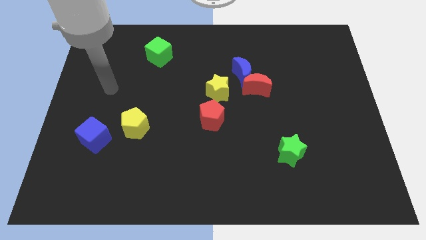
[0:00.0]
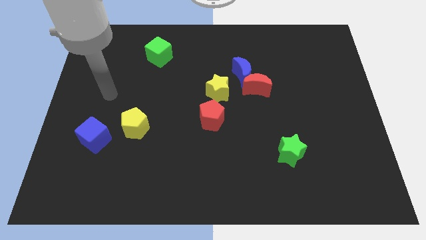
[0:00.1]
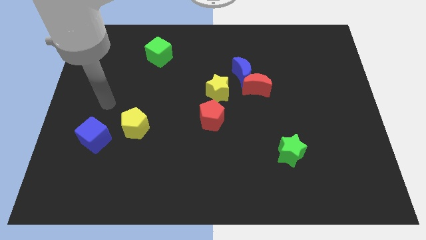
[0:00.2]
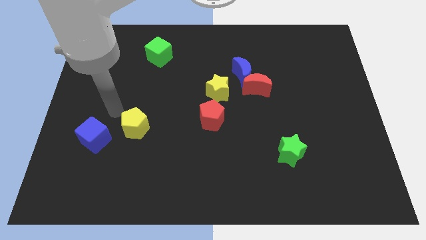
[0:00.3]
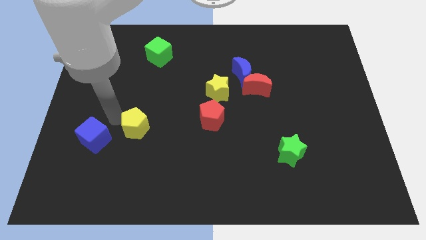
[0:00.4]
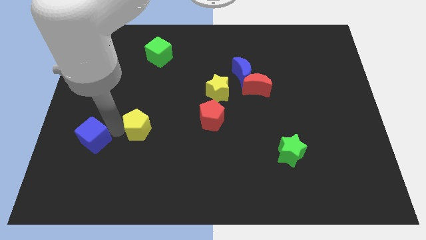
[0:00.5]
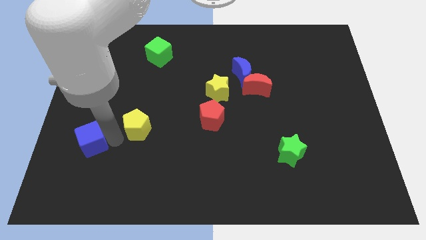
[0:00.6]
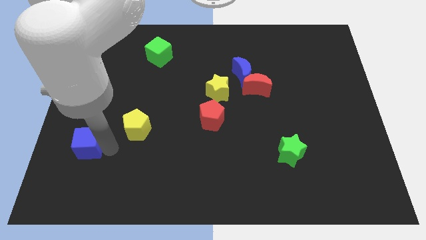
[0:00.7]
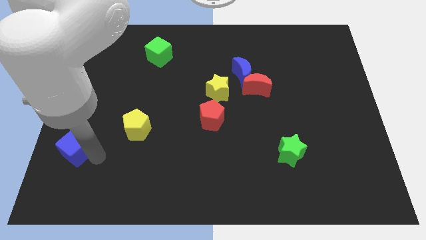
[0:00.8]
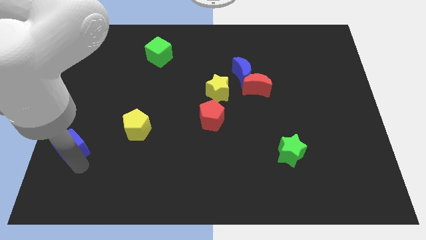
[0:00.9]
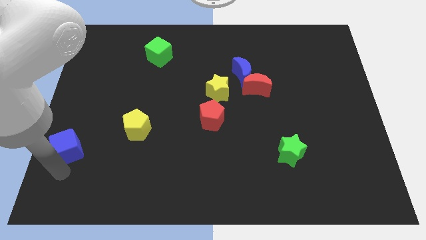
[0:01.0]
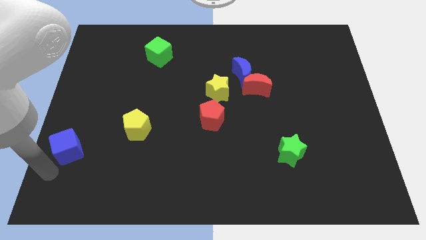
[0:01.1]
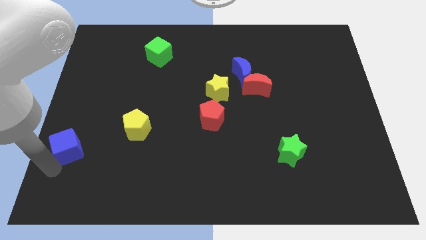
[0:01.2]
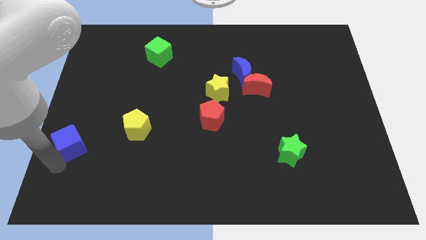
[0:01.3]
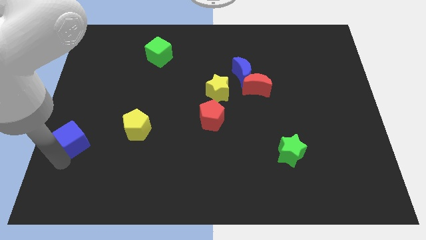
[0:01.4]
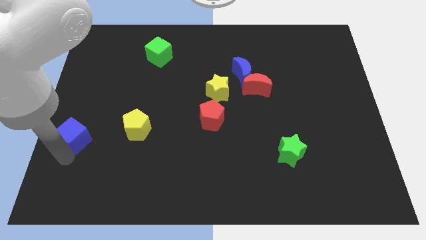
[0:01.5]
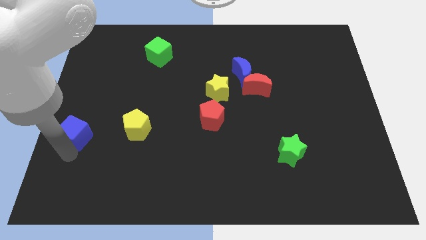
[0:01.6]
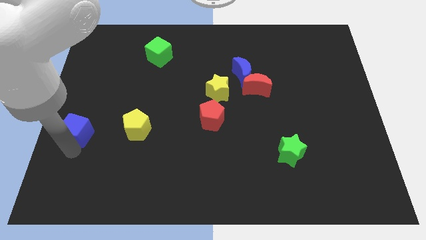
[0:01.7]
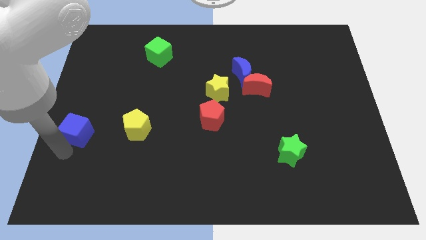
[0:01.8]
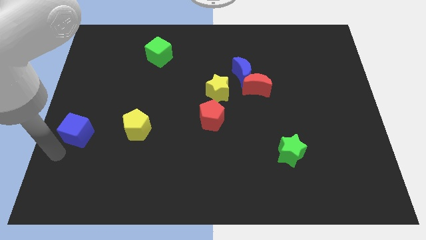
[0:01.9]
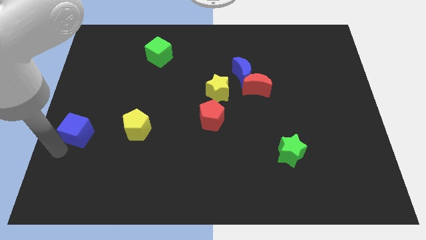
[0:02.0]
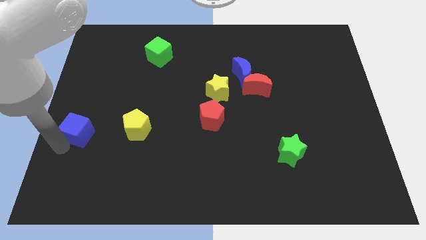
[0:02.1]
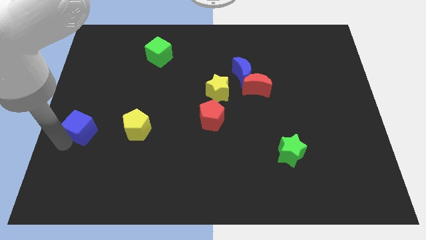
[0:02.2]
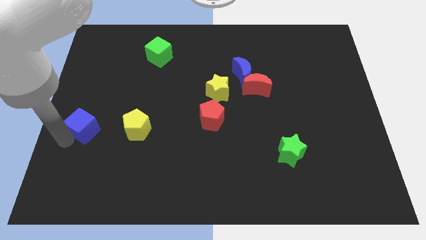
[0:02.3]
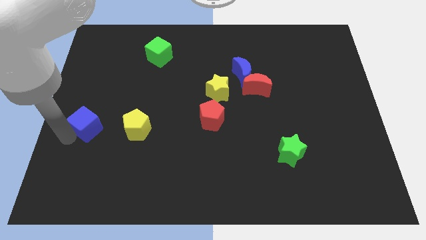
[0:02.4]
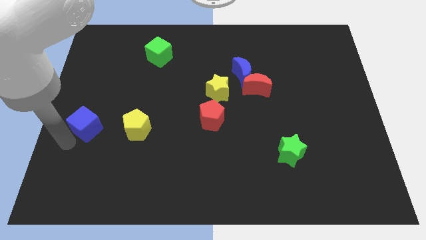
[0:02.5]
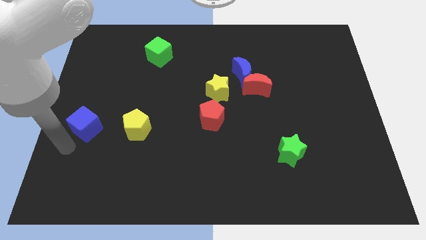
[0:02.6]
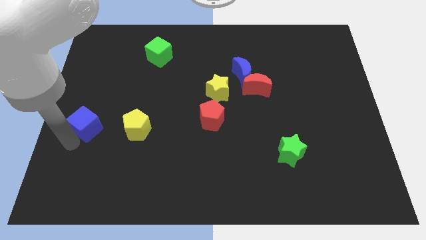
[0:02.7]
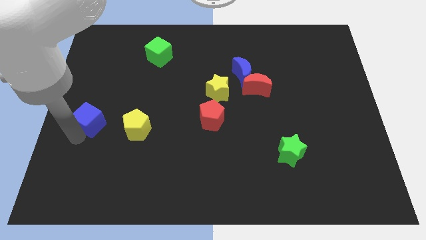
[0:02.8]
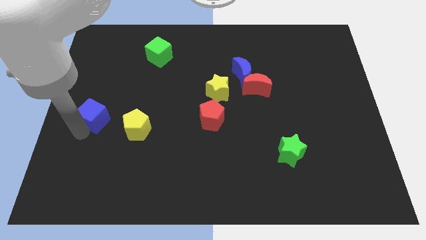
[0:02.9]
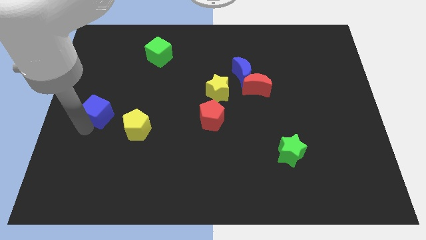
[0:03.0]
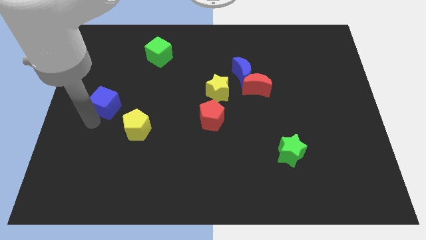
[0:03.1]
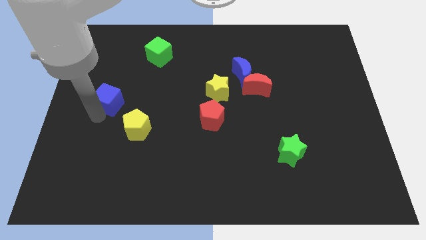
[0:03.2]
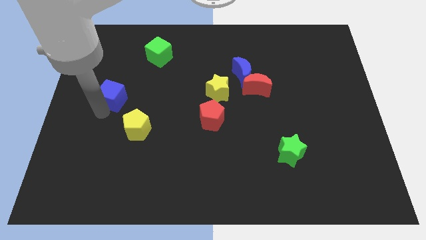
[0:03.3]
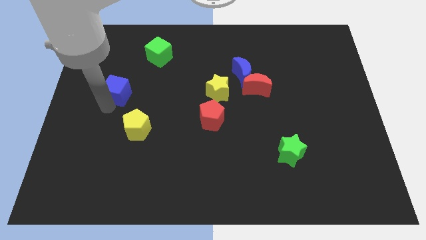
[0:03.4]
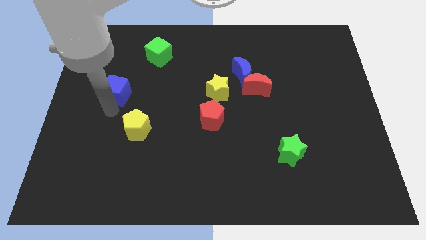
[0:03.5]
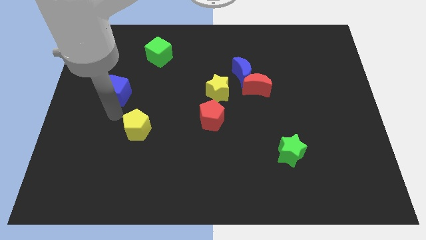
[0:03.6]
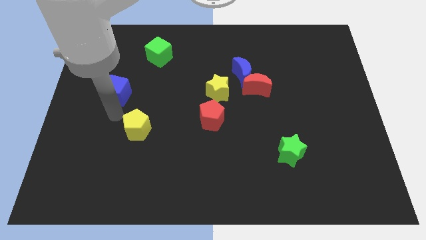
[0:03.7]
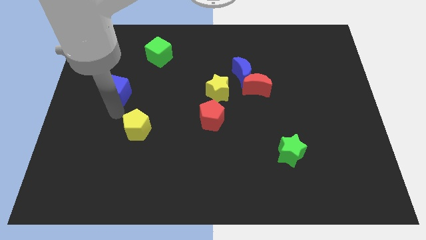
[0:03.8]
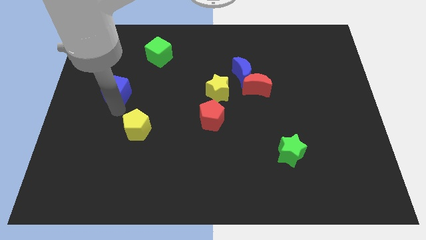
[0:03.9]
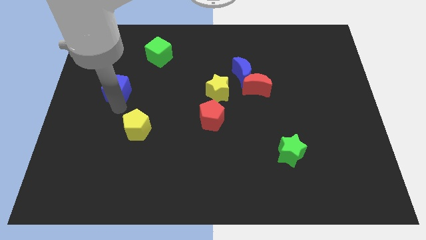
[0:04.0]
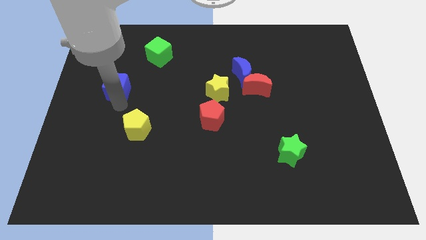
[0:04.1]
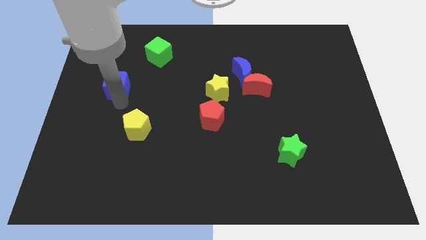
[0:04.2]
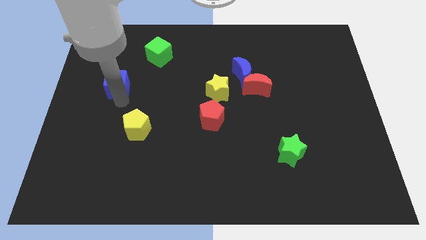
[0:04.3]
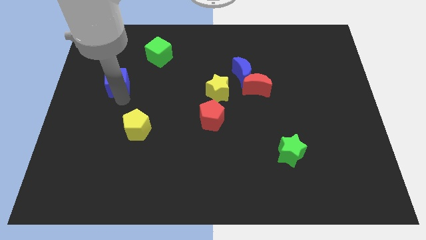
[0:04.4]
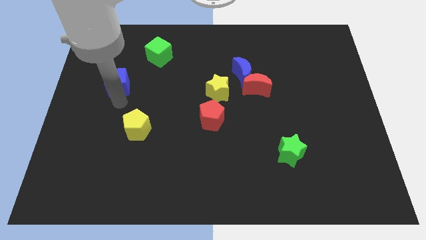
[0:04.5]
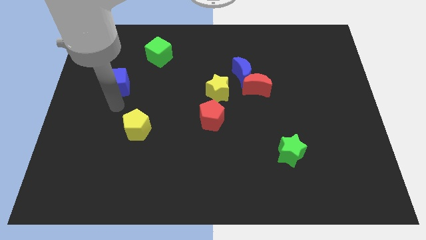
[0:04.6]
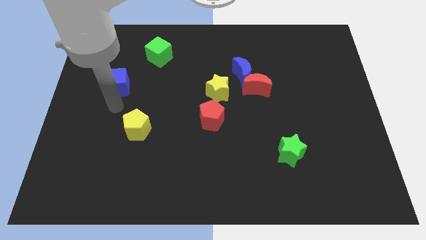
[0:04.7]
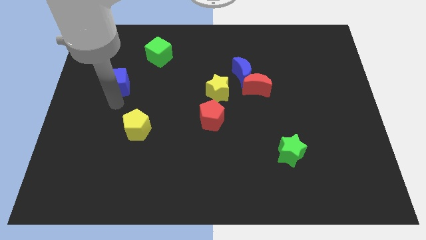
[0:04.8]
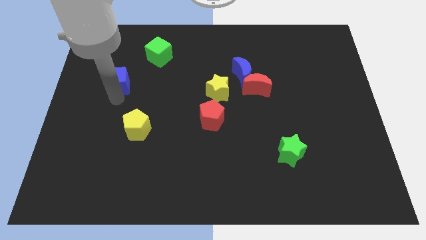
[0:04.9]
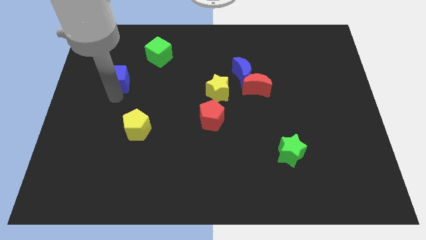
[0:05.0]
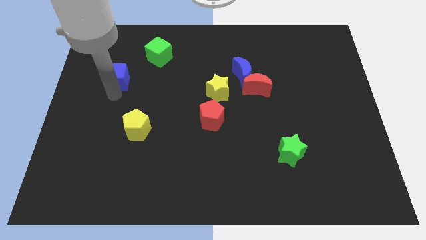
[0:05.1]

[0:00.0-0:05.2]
slide the blue cube to the bottom left of the green cube

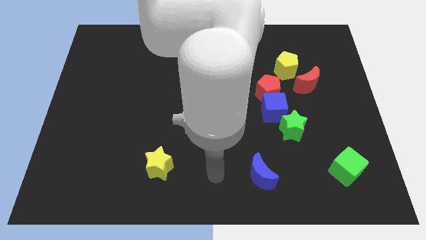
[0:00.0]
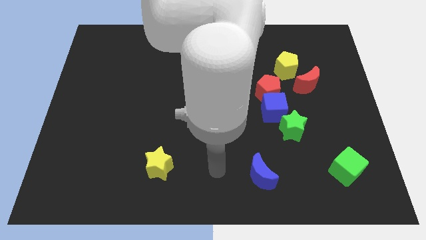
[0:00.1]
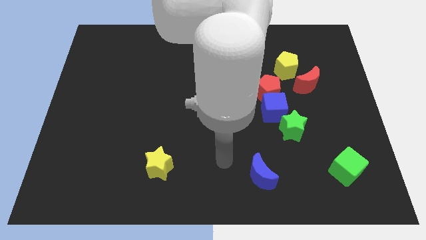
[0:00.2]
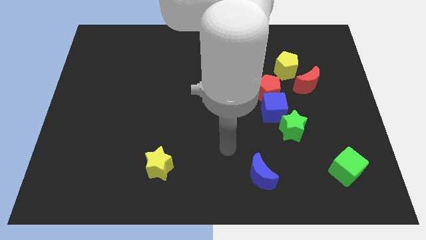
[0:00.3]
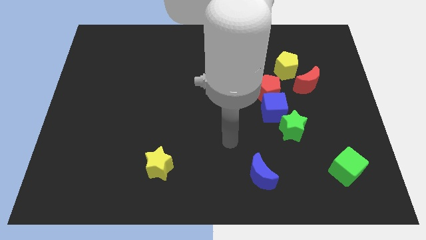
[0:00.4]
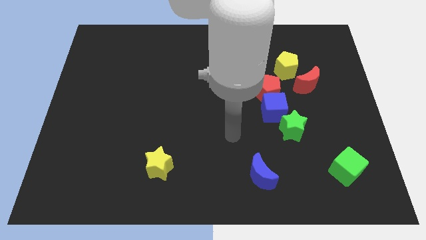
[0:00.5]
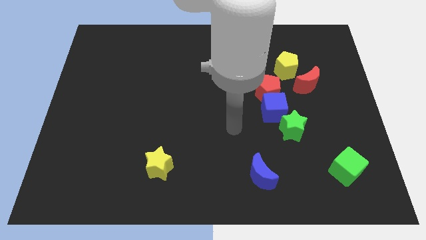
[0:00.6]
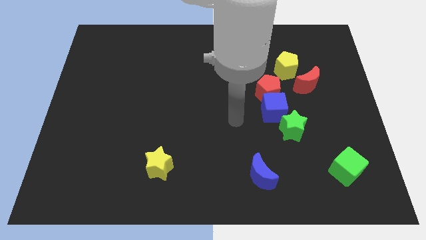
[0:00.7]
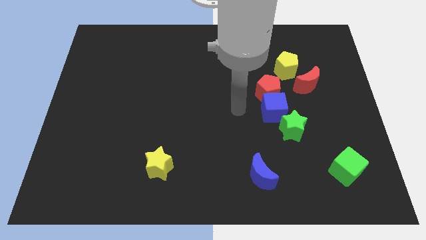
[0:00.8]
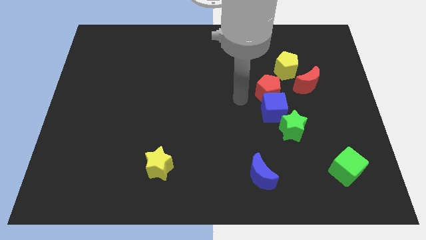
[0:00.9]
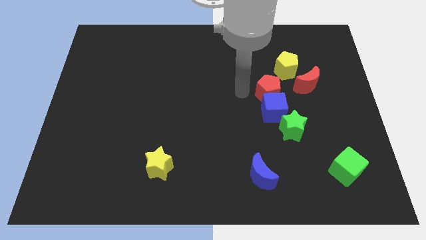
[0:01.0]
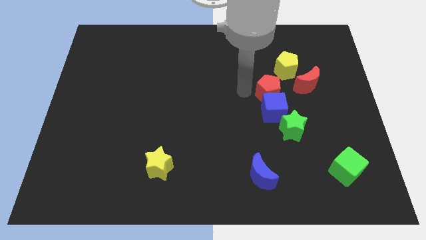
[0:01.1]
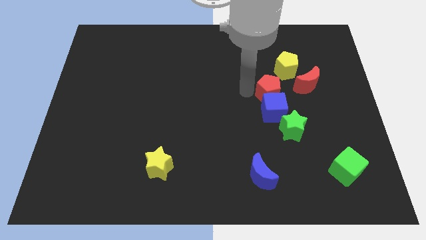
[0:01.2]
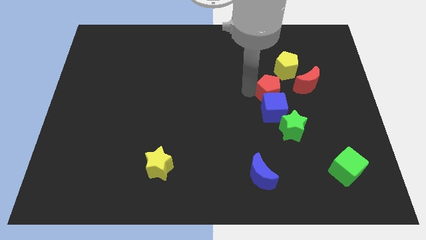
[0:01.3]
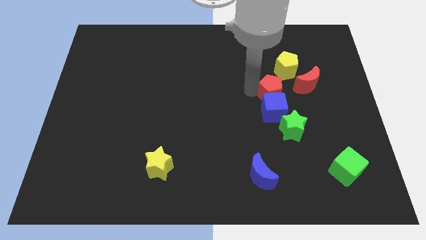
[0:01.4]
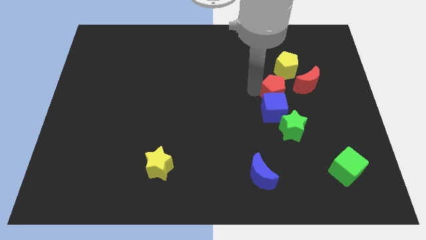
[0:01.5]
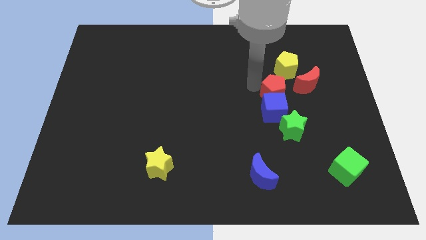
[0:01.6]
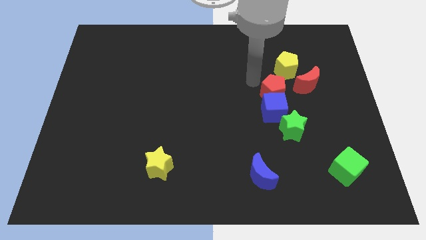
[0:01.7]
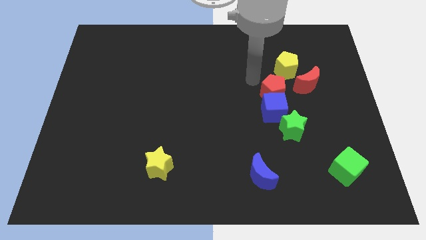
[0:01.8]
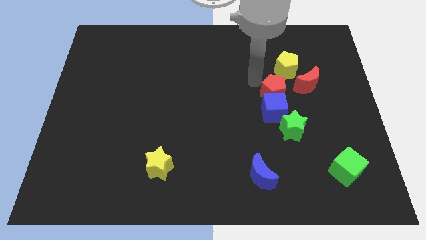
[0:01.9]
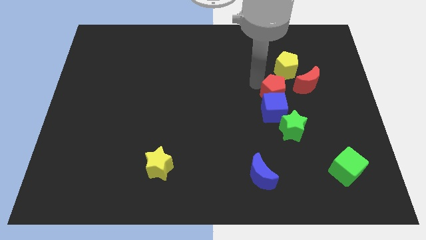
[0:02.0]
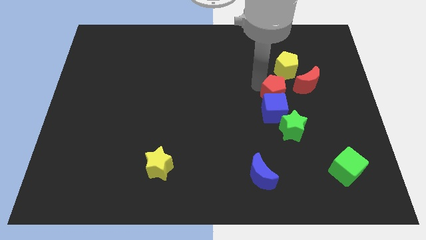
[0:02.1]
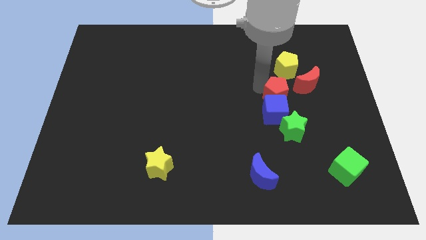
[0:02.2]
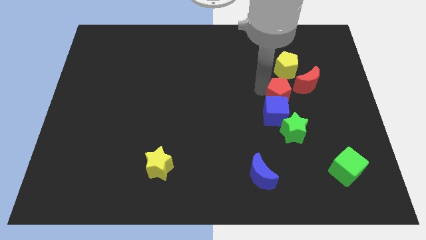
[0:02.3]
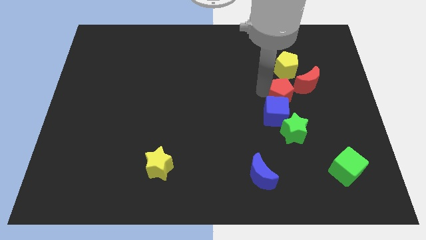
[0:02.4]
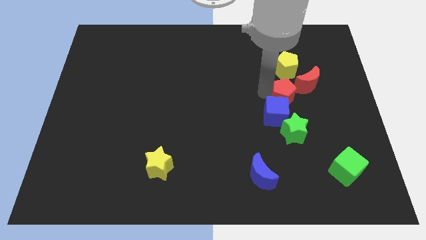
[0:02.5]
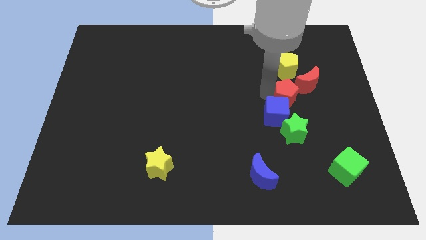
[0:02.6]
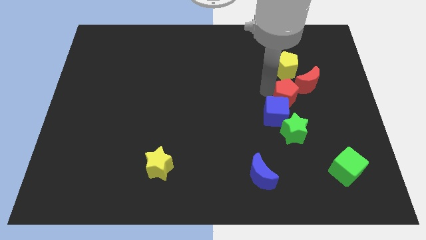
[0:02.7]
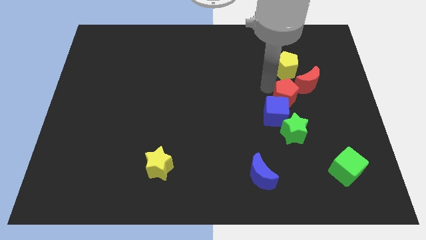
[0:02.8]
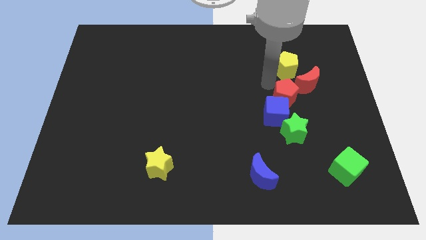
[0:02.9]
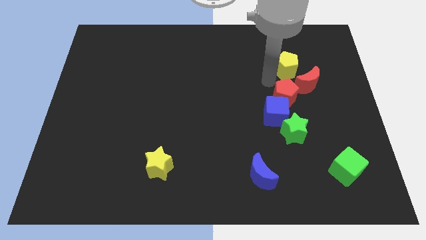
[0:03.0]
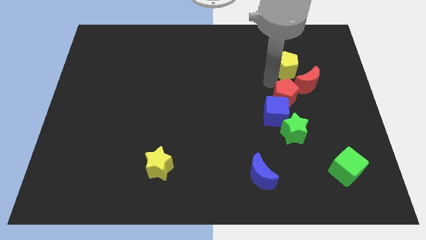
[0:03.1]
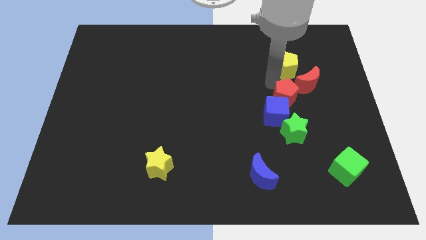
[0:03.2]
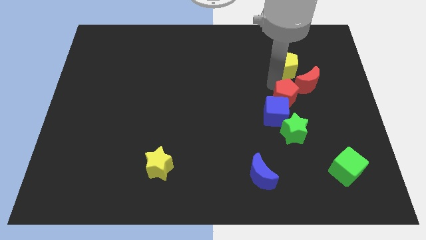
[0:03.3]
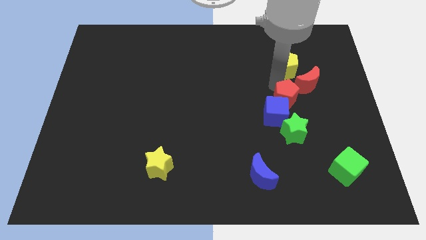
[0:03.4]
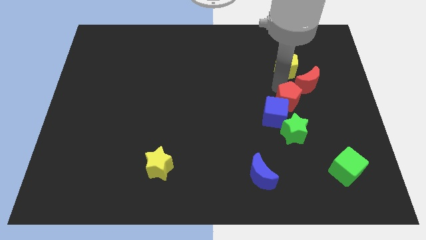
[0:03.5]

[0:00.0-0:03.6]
move the red pentagon just right of the blue cube

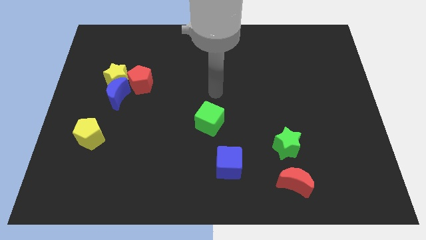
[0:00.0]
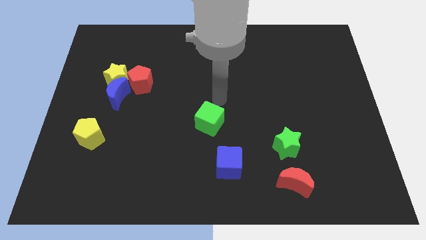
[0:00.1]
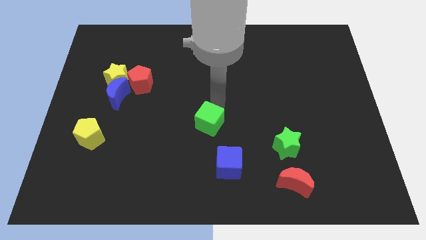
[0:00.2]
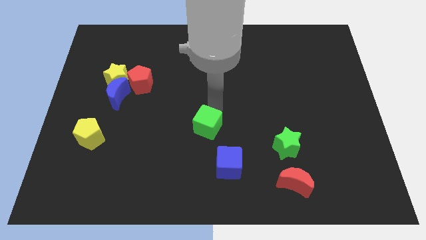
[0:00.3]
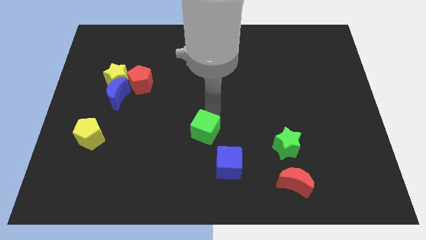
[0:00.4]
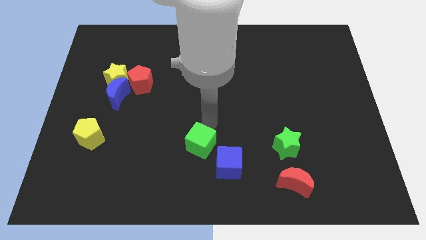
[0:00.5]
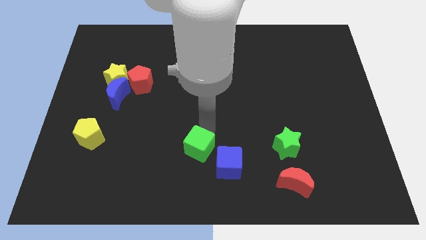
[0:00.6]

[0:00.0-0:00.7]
push the green cube to the left side of the blue cube
